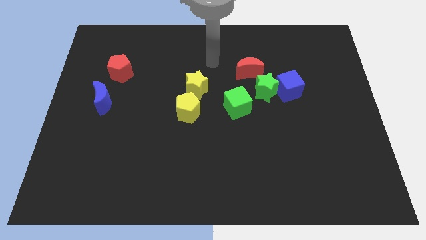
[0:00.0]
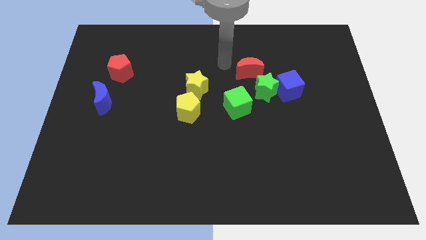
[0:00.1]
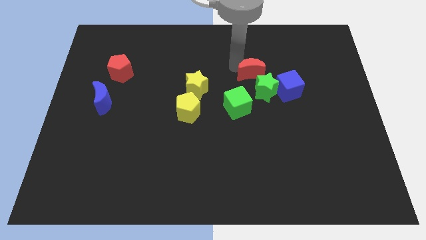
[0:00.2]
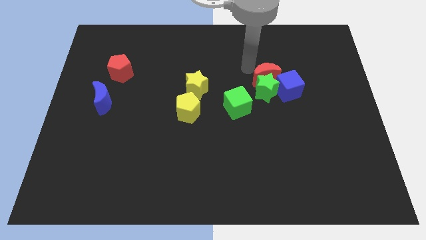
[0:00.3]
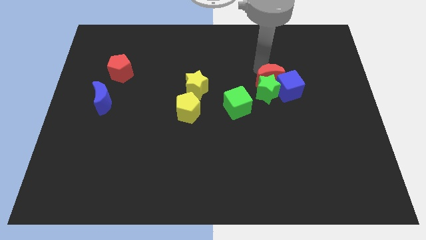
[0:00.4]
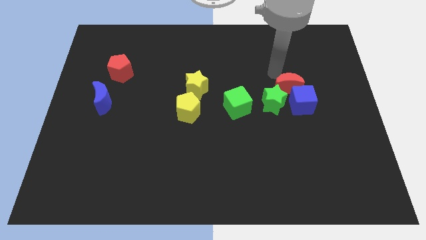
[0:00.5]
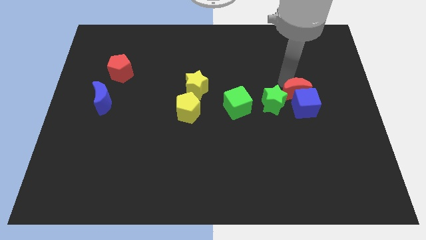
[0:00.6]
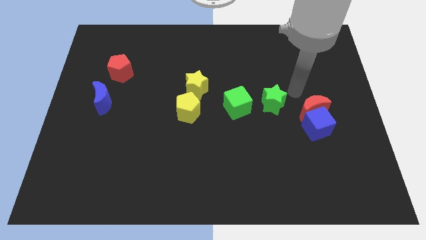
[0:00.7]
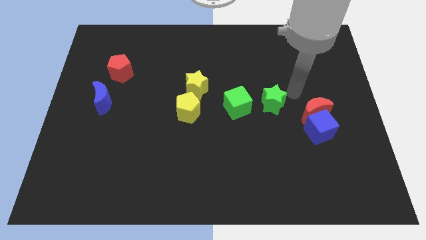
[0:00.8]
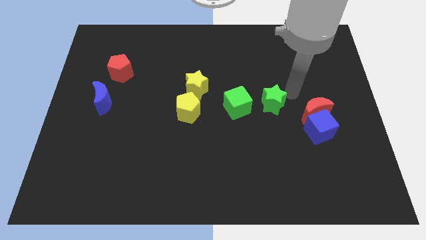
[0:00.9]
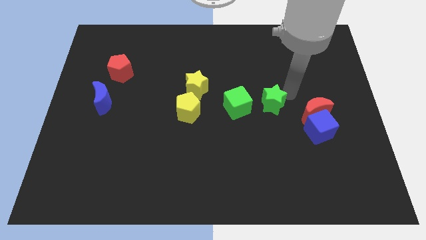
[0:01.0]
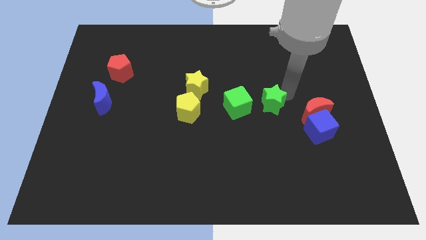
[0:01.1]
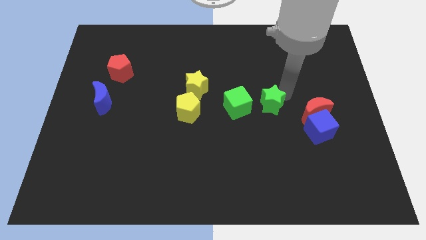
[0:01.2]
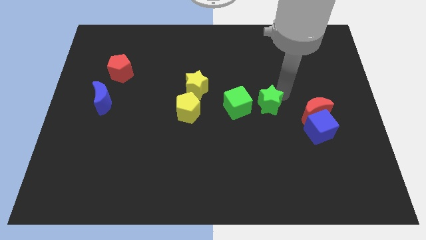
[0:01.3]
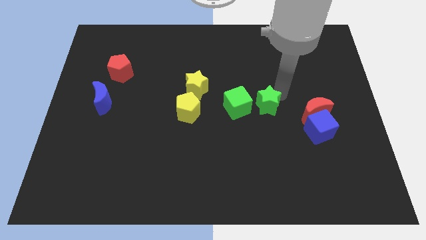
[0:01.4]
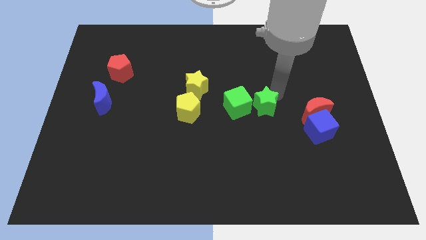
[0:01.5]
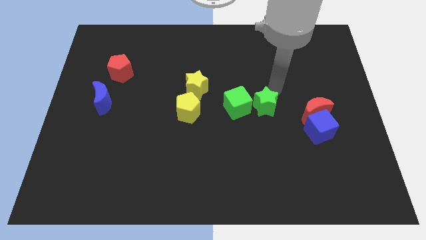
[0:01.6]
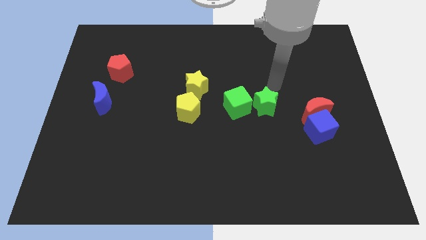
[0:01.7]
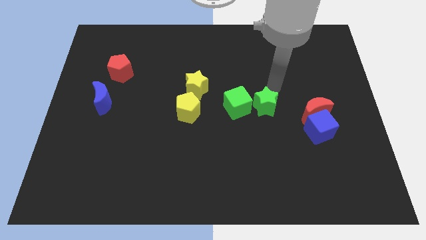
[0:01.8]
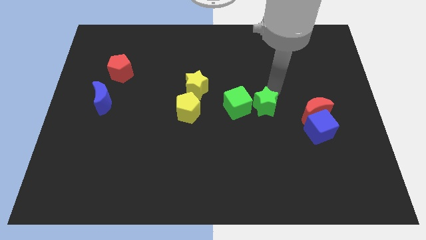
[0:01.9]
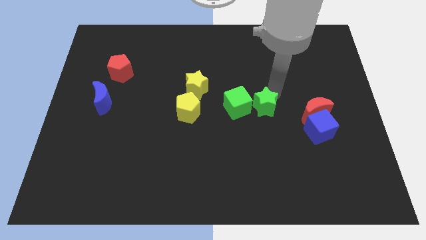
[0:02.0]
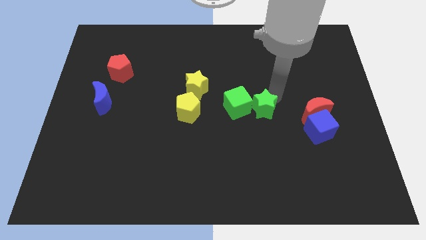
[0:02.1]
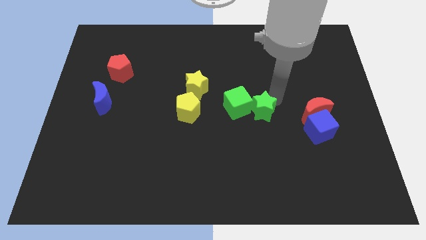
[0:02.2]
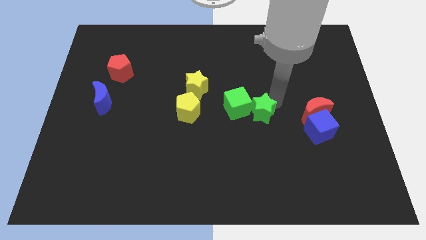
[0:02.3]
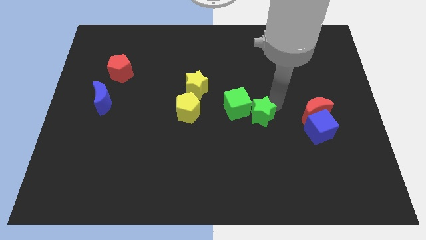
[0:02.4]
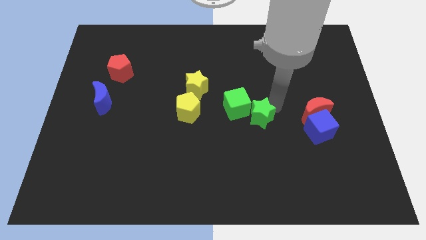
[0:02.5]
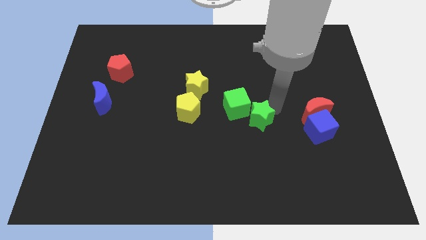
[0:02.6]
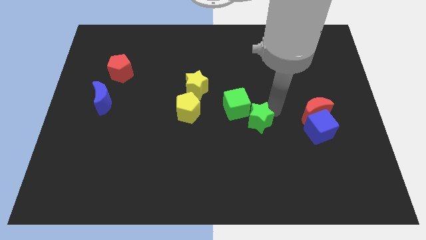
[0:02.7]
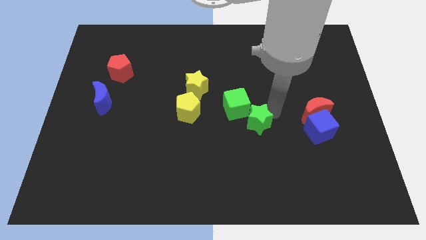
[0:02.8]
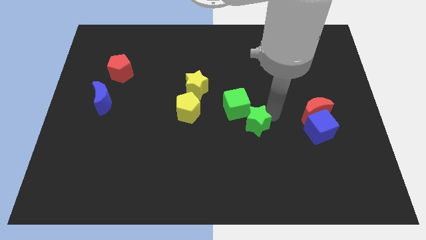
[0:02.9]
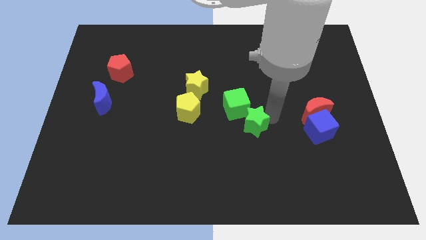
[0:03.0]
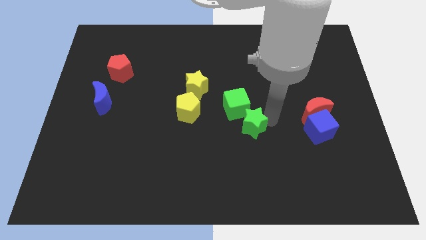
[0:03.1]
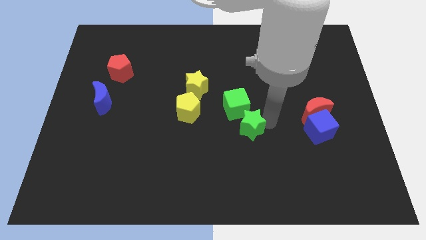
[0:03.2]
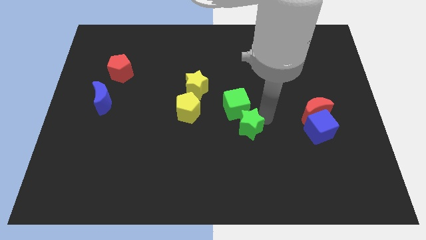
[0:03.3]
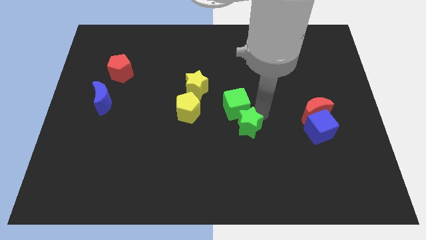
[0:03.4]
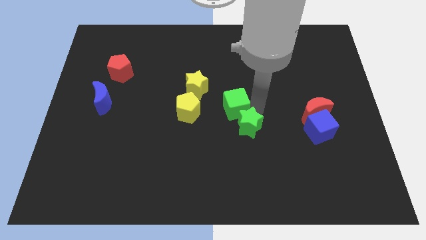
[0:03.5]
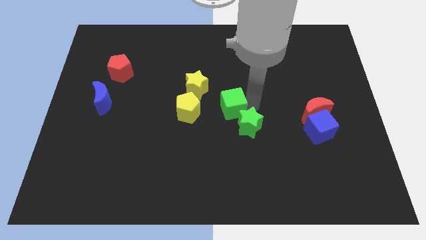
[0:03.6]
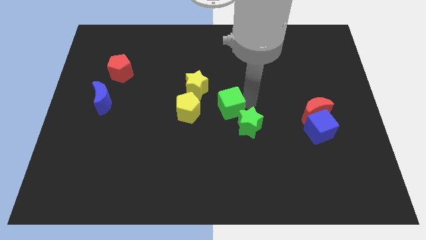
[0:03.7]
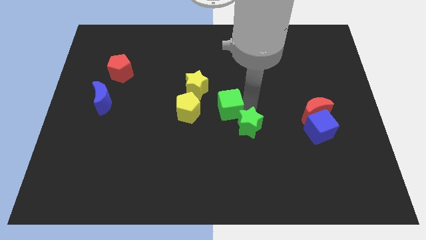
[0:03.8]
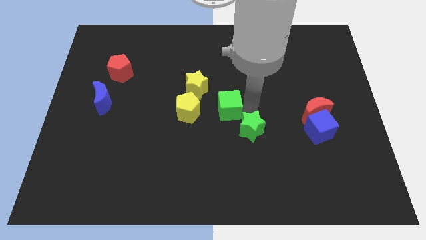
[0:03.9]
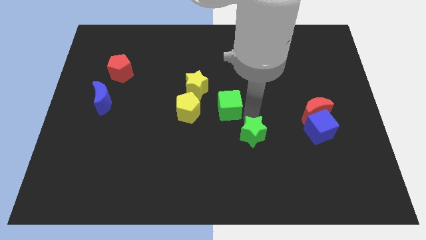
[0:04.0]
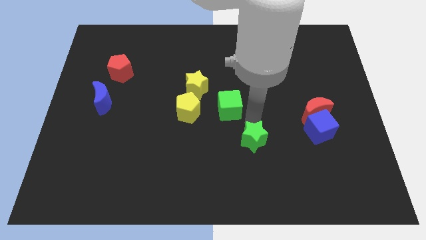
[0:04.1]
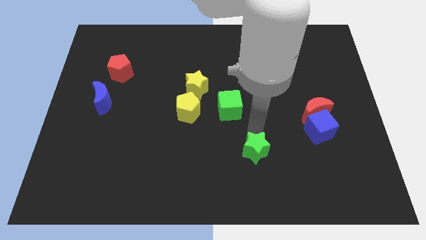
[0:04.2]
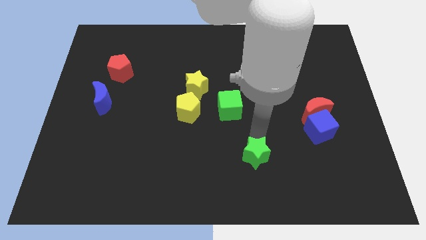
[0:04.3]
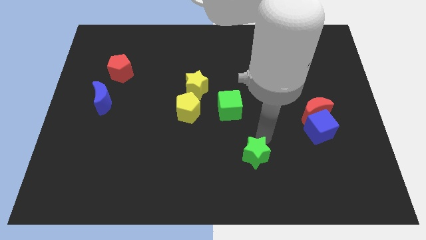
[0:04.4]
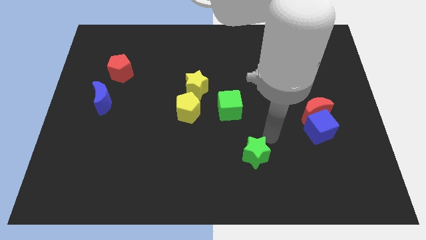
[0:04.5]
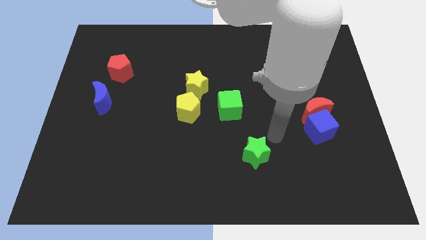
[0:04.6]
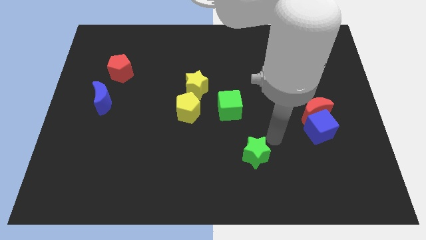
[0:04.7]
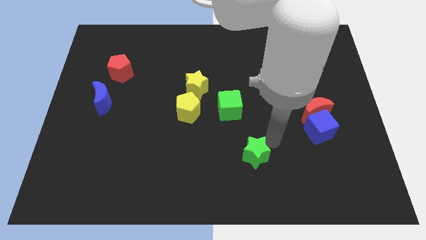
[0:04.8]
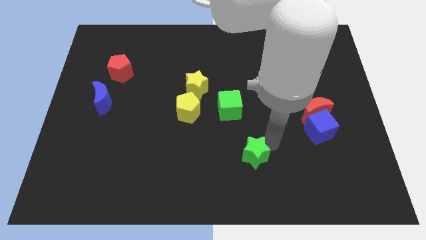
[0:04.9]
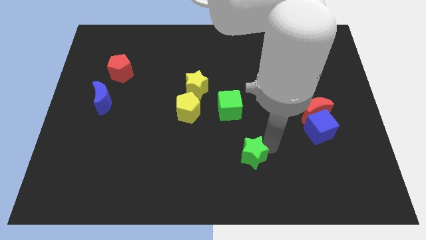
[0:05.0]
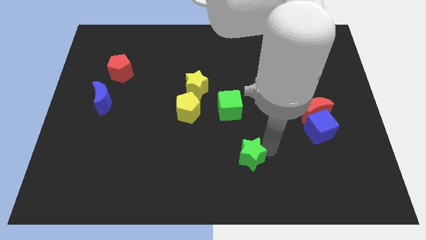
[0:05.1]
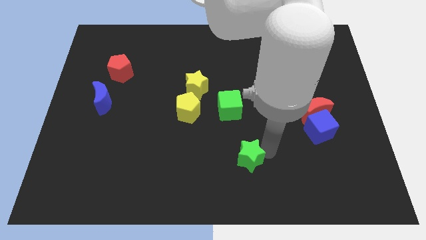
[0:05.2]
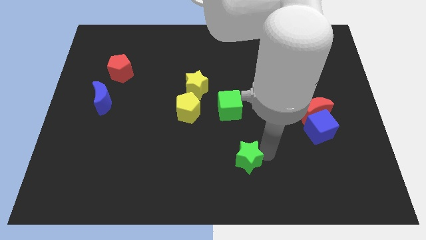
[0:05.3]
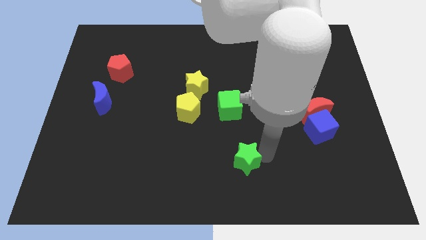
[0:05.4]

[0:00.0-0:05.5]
slide the green star to the bottom side
